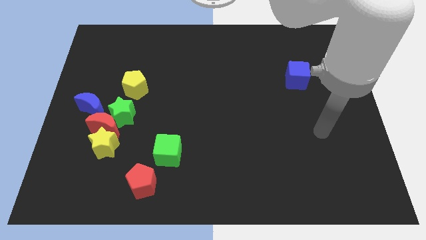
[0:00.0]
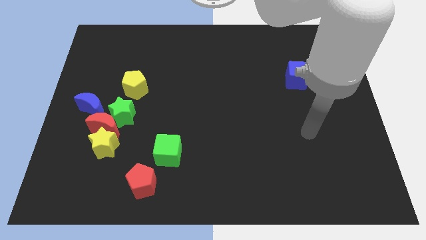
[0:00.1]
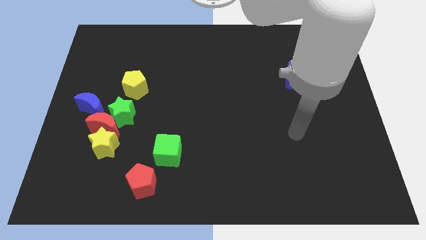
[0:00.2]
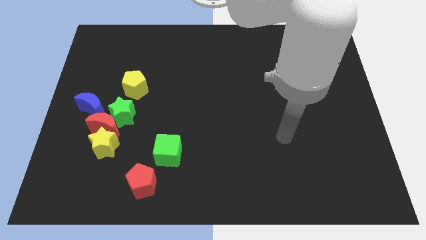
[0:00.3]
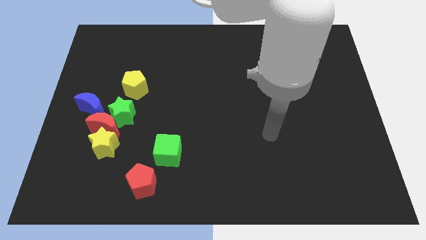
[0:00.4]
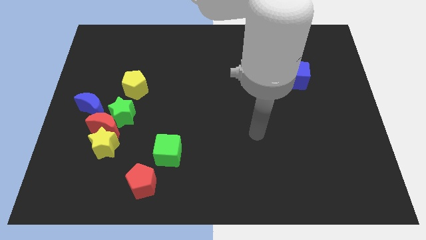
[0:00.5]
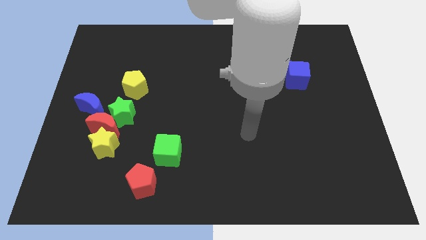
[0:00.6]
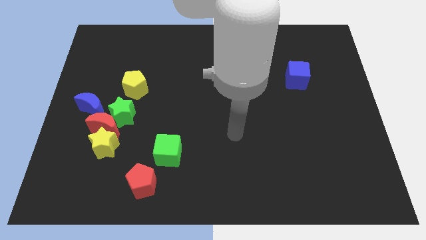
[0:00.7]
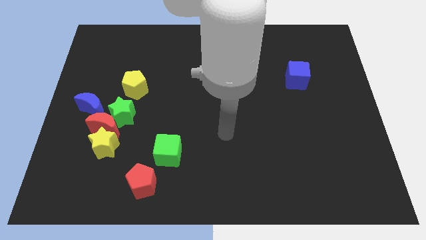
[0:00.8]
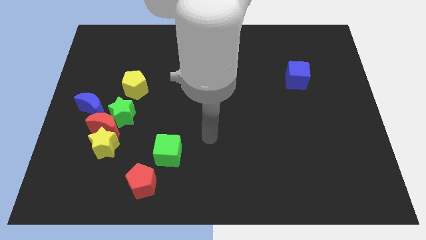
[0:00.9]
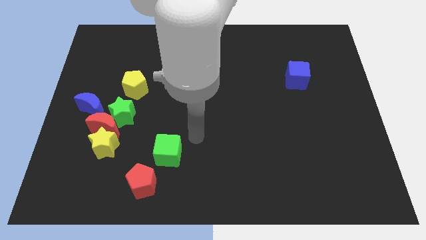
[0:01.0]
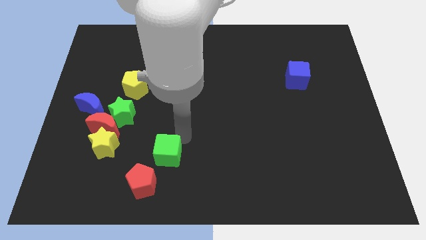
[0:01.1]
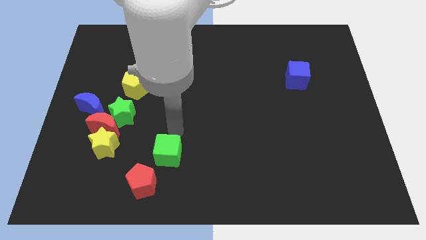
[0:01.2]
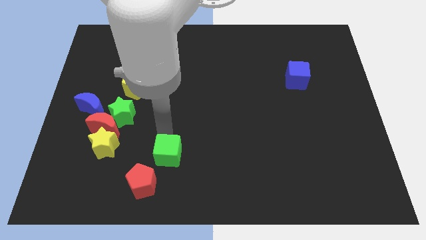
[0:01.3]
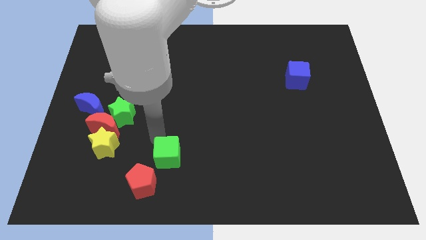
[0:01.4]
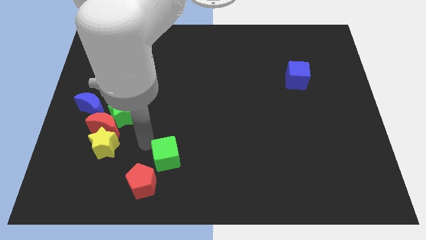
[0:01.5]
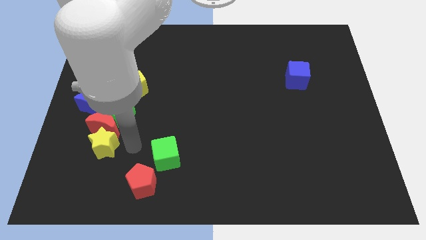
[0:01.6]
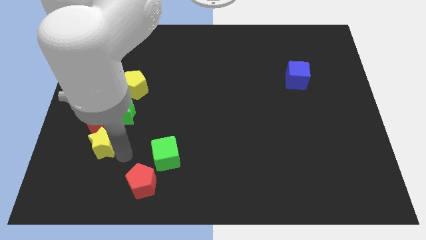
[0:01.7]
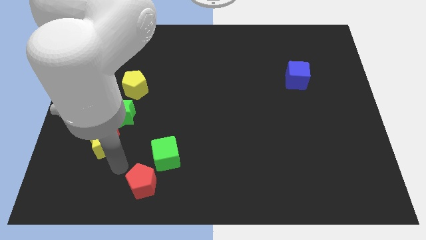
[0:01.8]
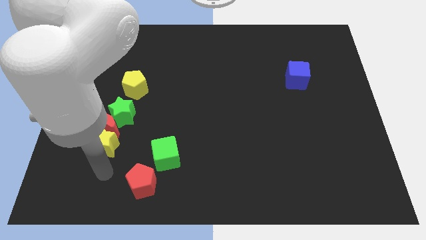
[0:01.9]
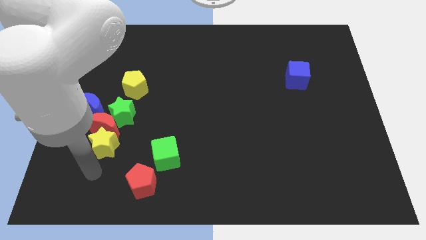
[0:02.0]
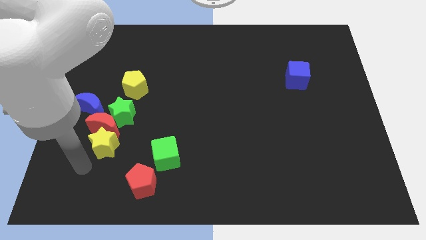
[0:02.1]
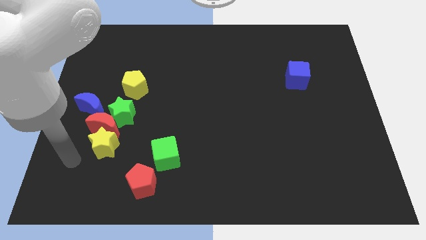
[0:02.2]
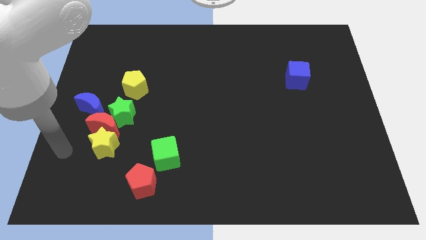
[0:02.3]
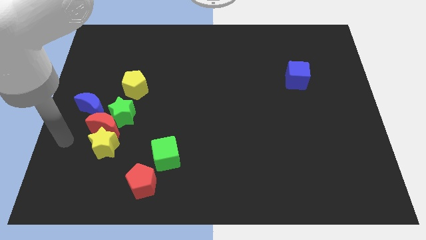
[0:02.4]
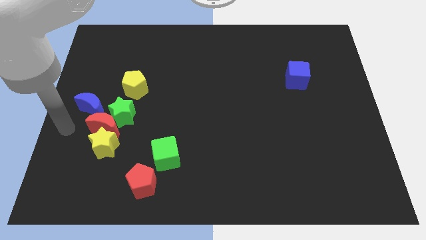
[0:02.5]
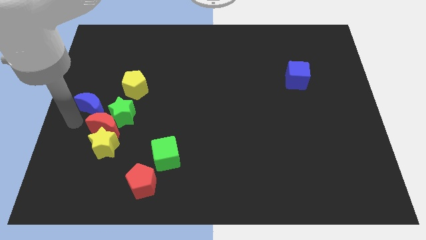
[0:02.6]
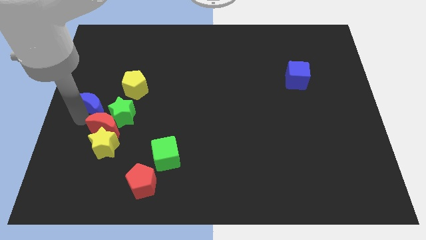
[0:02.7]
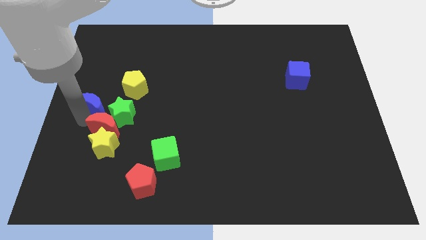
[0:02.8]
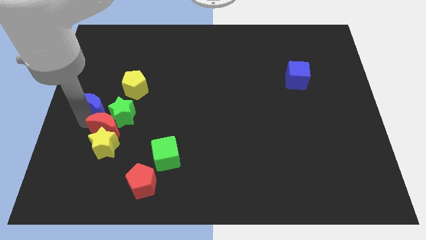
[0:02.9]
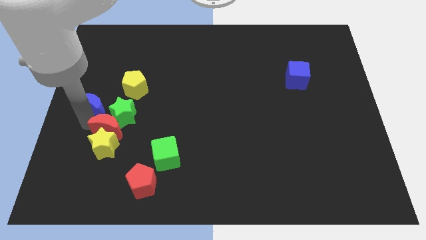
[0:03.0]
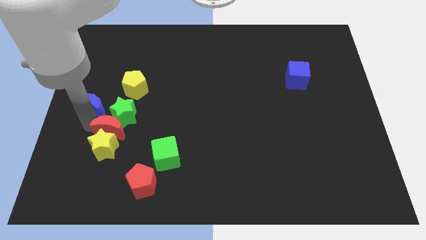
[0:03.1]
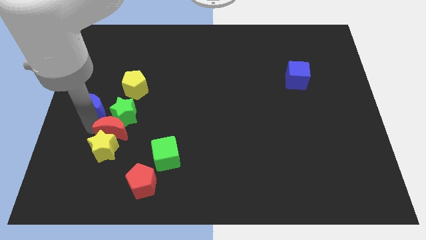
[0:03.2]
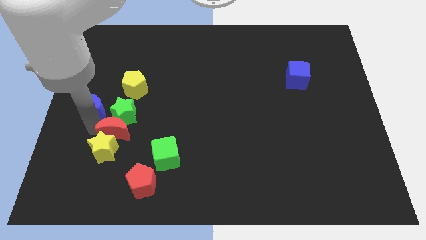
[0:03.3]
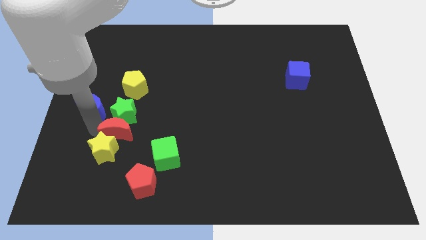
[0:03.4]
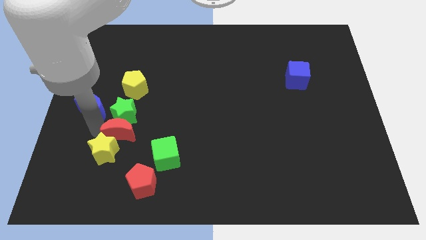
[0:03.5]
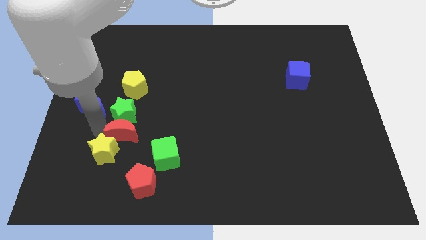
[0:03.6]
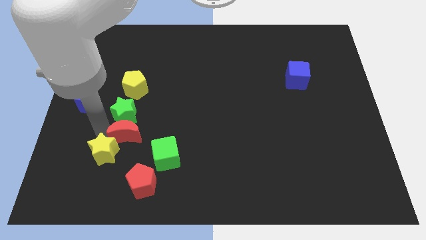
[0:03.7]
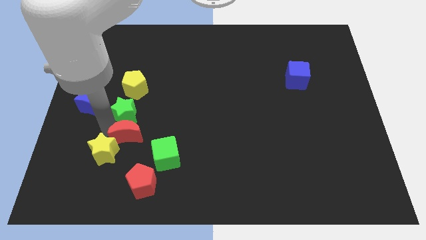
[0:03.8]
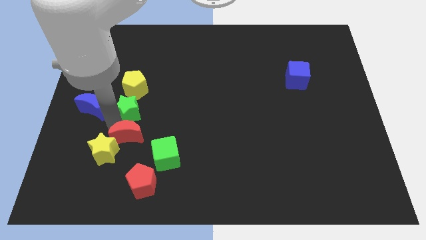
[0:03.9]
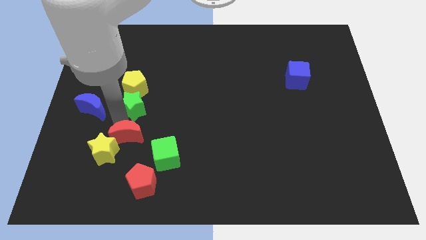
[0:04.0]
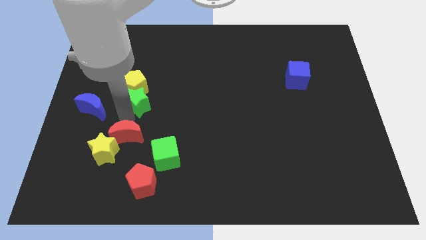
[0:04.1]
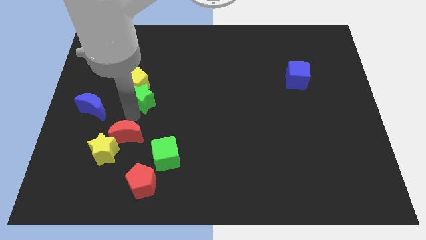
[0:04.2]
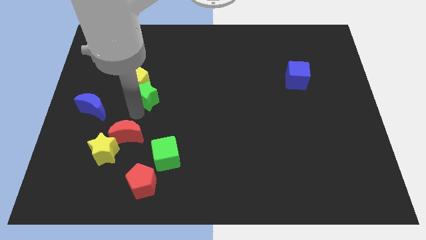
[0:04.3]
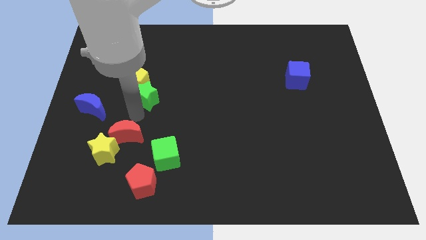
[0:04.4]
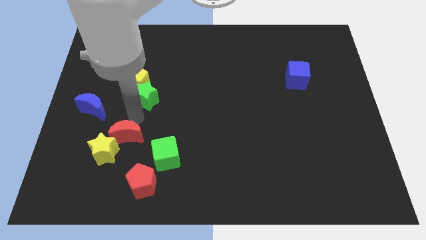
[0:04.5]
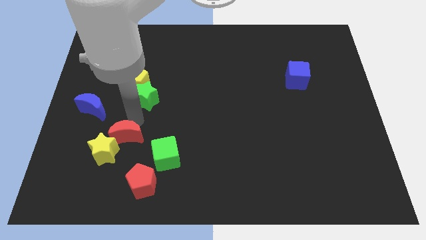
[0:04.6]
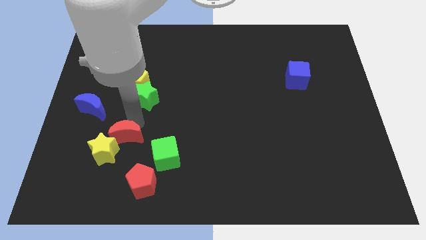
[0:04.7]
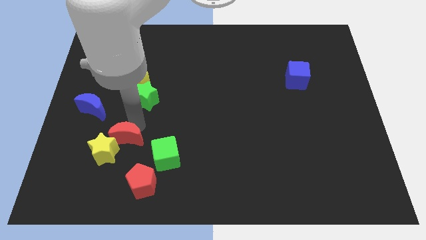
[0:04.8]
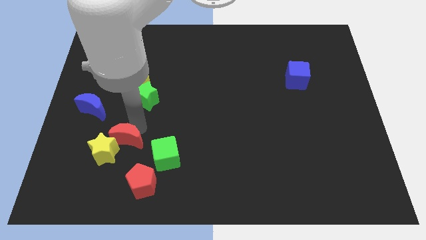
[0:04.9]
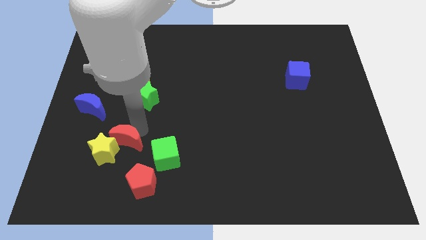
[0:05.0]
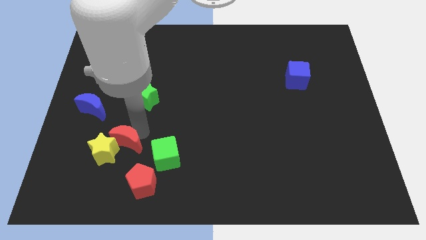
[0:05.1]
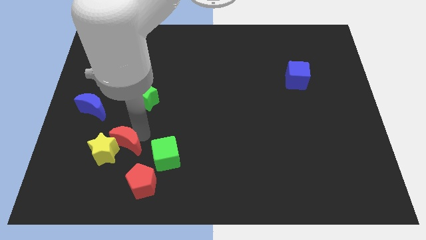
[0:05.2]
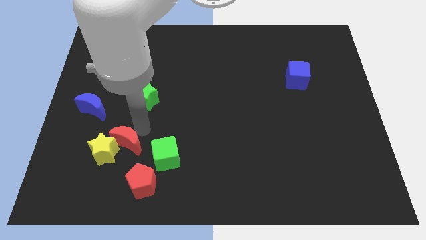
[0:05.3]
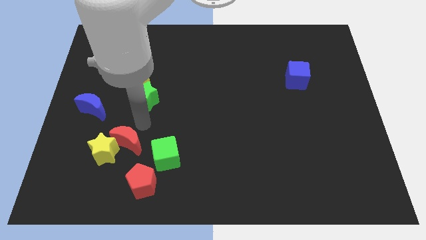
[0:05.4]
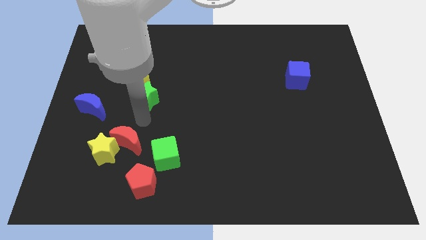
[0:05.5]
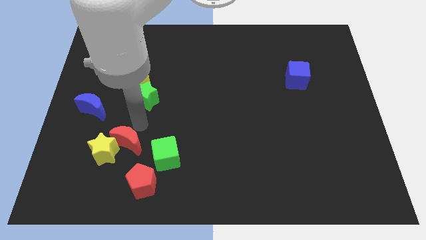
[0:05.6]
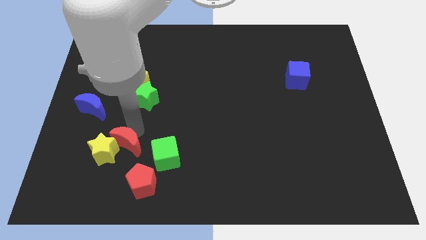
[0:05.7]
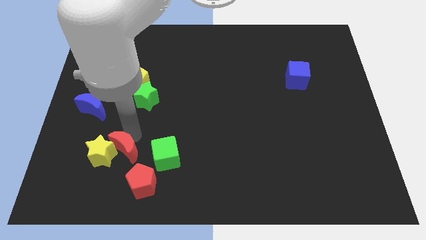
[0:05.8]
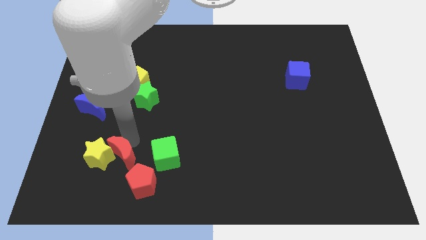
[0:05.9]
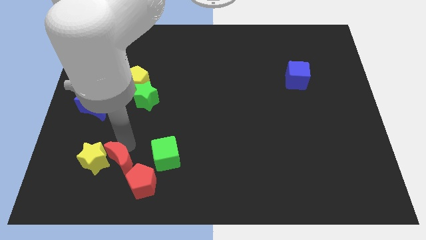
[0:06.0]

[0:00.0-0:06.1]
pull the red moon apart from the green star, yellow star, and blue moon

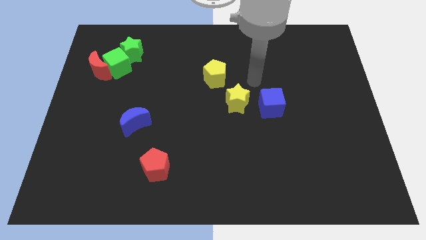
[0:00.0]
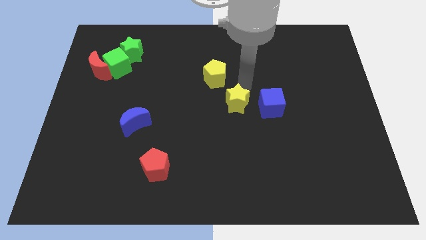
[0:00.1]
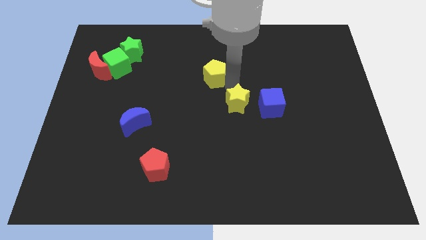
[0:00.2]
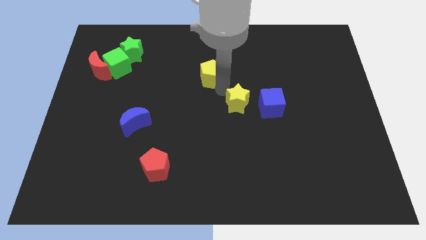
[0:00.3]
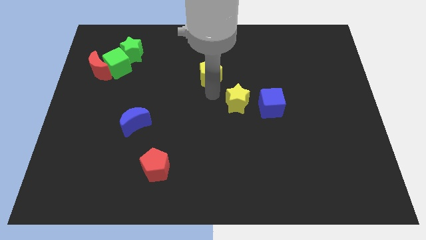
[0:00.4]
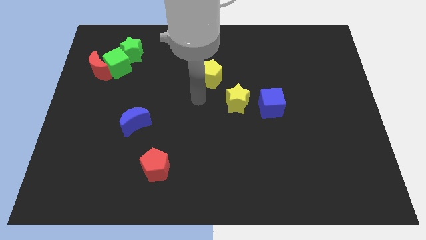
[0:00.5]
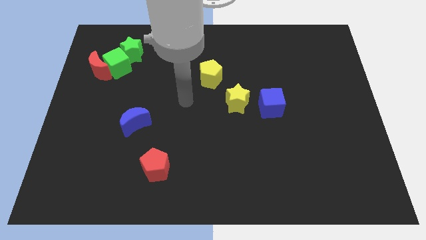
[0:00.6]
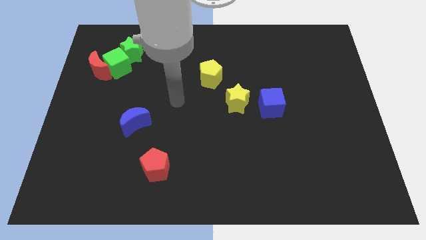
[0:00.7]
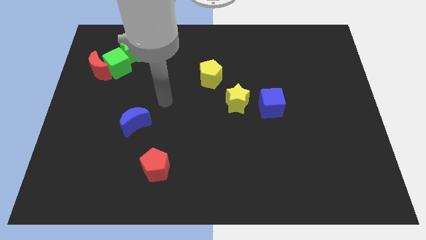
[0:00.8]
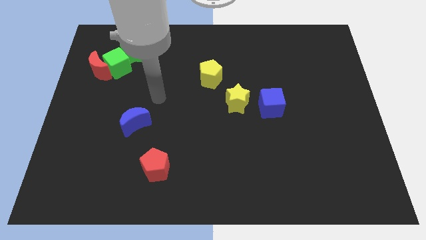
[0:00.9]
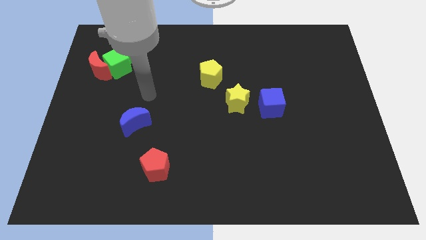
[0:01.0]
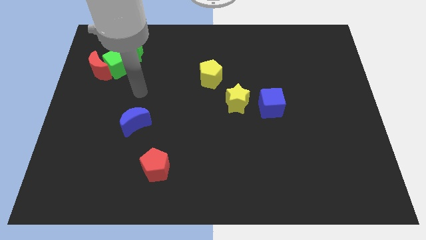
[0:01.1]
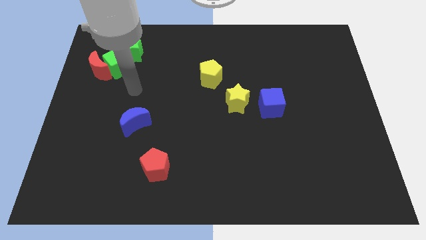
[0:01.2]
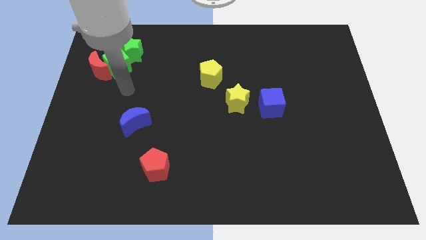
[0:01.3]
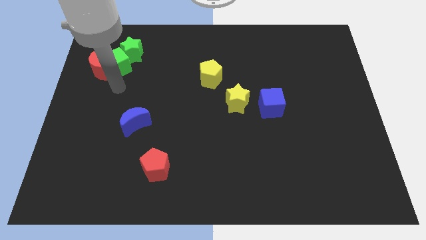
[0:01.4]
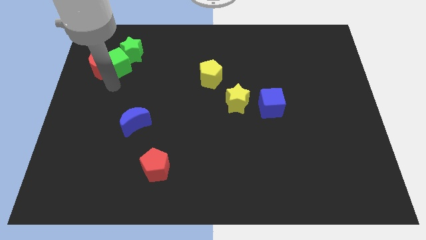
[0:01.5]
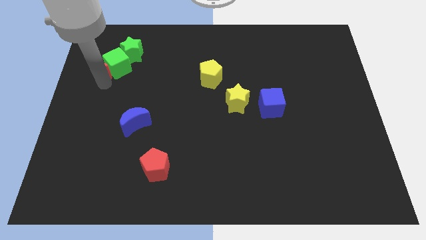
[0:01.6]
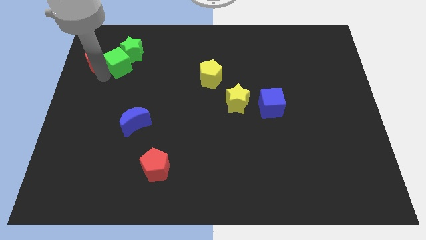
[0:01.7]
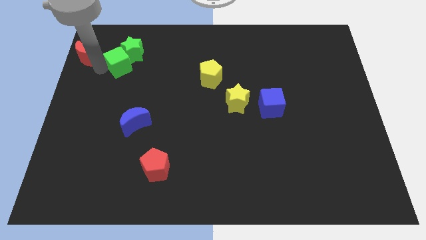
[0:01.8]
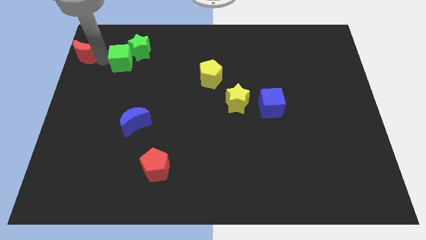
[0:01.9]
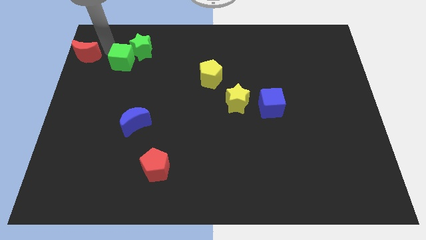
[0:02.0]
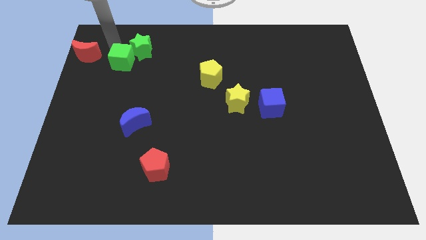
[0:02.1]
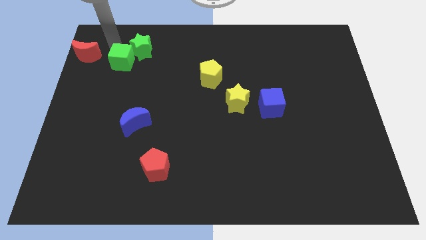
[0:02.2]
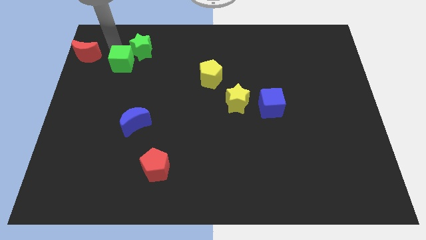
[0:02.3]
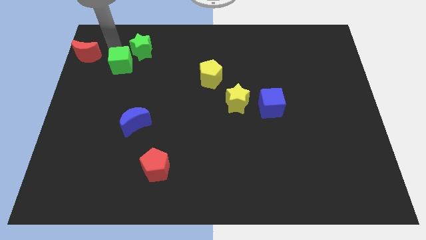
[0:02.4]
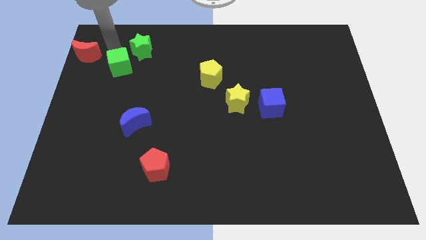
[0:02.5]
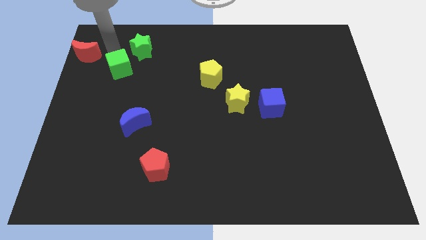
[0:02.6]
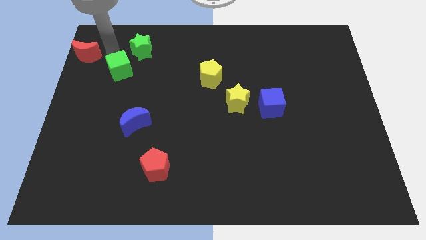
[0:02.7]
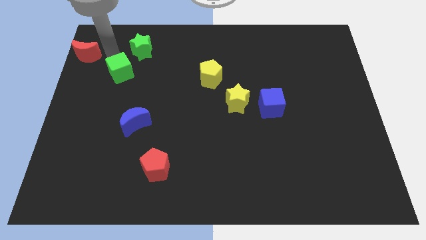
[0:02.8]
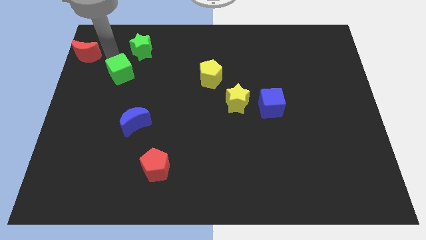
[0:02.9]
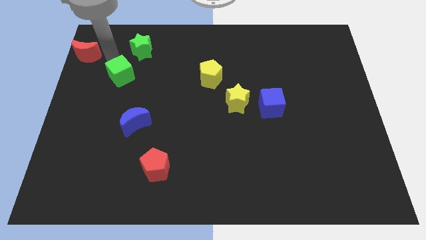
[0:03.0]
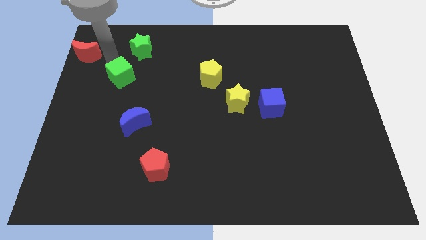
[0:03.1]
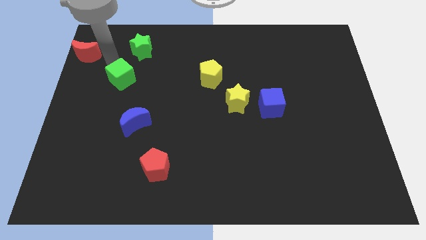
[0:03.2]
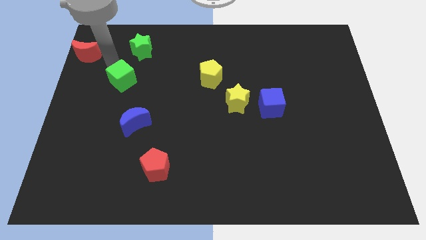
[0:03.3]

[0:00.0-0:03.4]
pull the green cube apart from the red moon and green star
